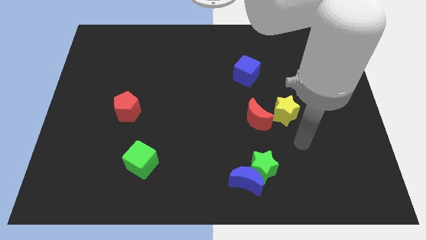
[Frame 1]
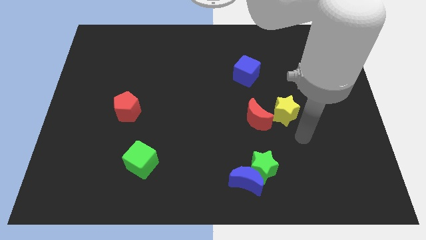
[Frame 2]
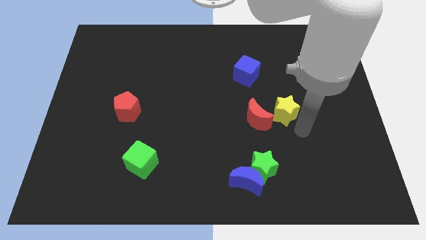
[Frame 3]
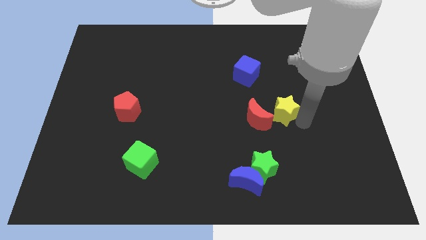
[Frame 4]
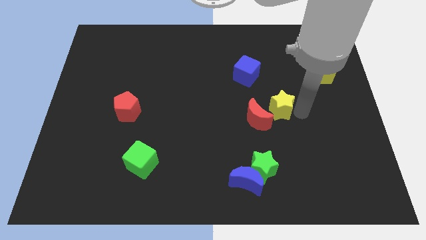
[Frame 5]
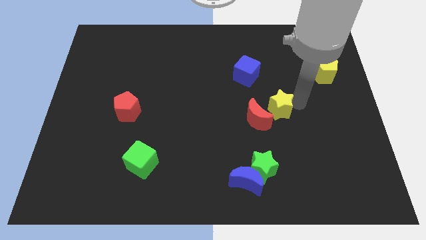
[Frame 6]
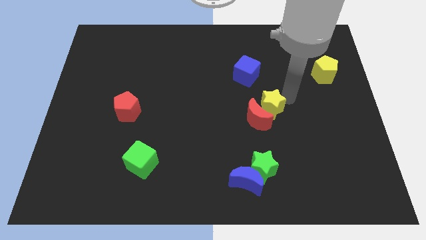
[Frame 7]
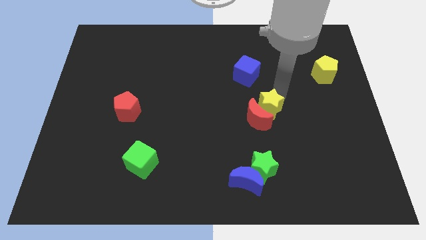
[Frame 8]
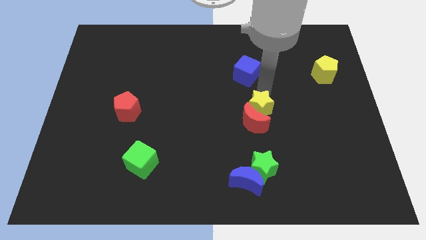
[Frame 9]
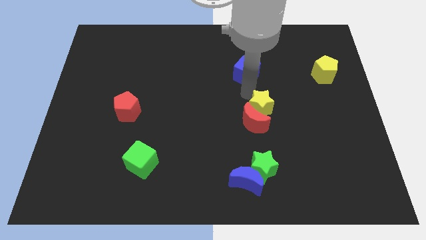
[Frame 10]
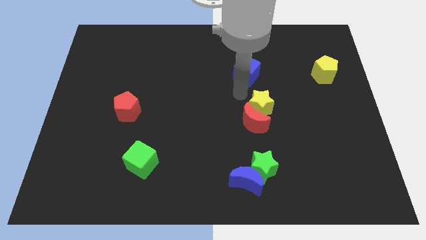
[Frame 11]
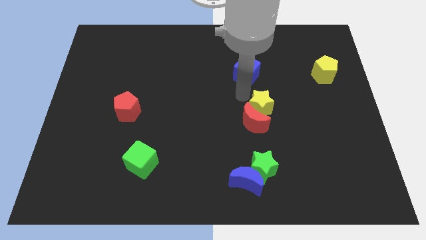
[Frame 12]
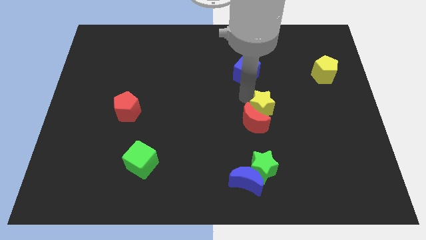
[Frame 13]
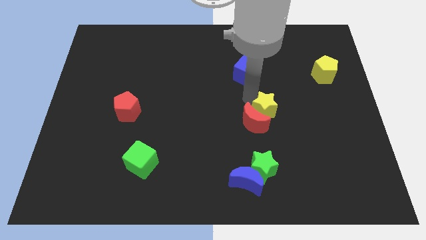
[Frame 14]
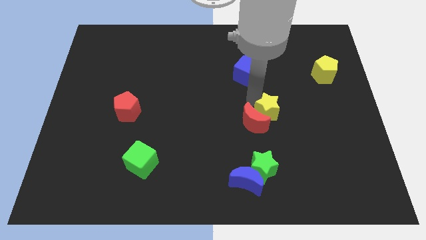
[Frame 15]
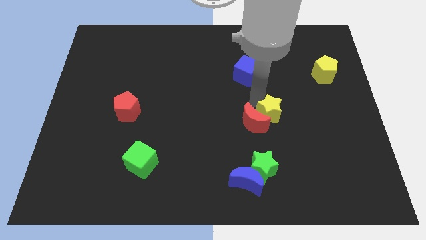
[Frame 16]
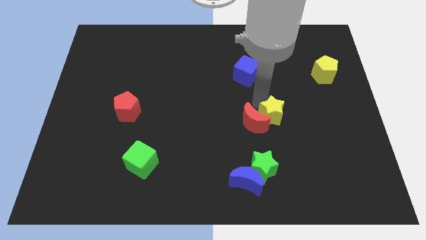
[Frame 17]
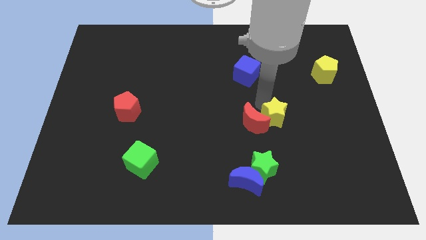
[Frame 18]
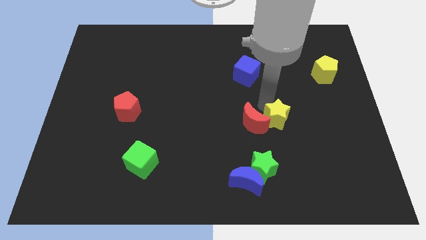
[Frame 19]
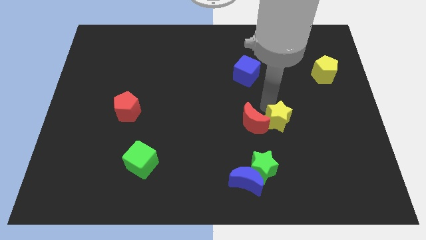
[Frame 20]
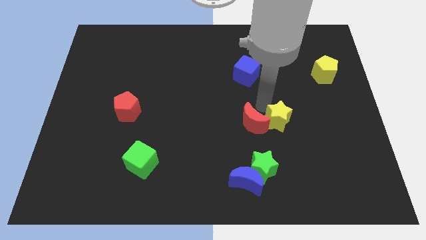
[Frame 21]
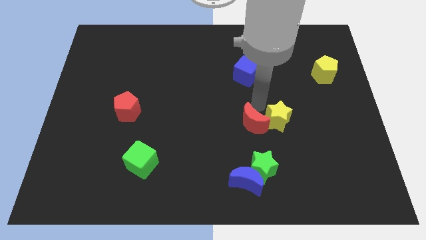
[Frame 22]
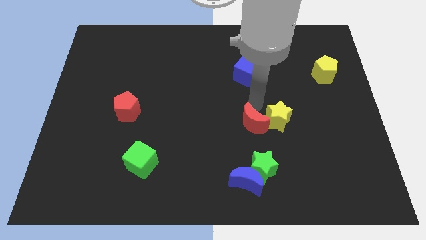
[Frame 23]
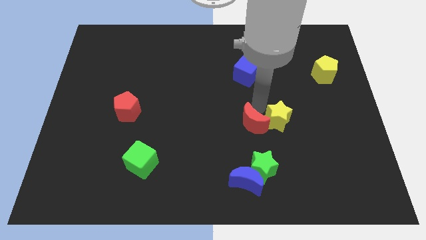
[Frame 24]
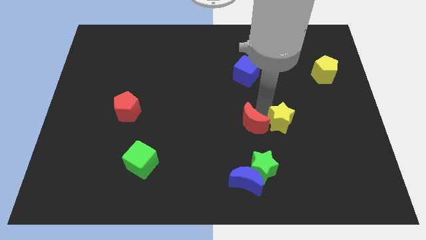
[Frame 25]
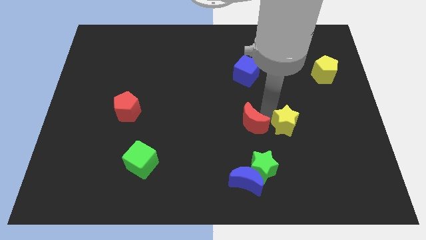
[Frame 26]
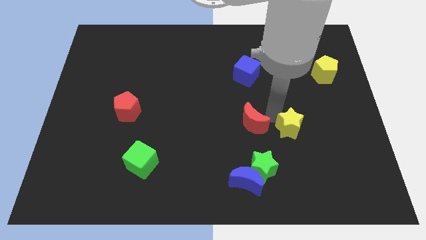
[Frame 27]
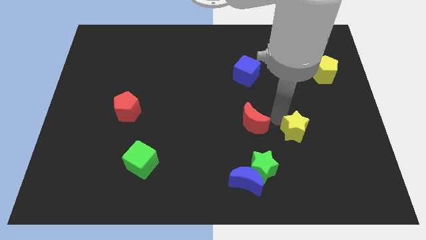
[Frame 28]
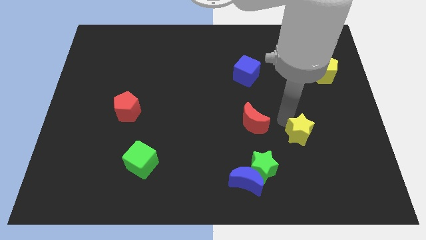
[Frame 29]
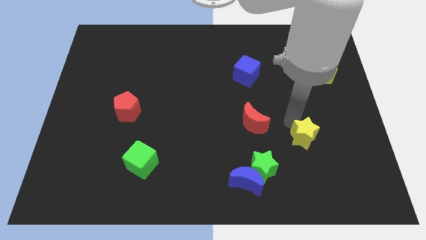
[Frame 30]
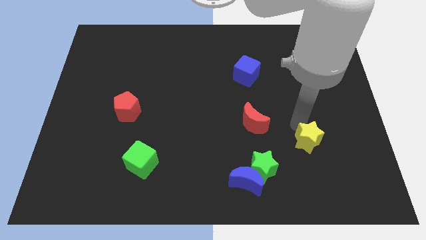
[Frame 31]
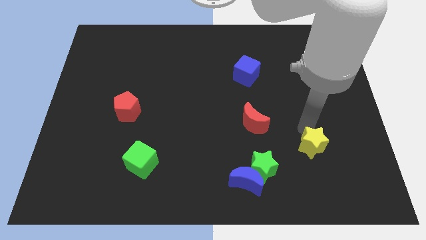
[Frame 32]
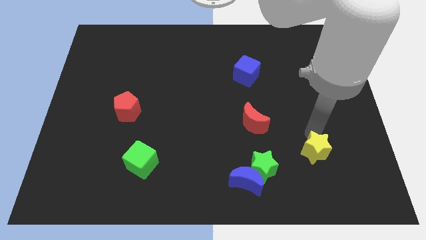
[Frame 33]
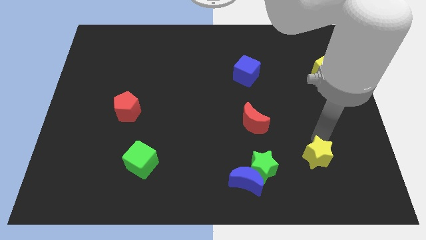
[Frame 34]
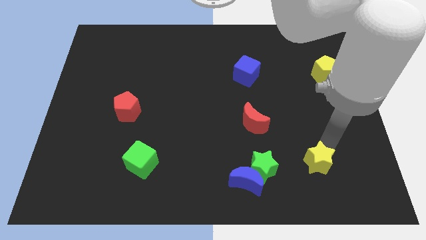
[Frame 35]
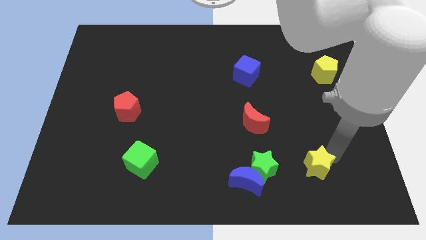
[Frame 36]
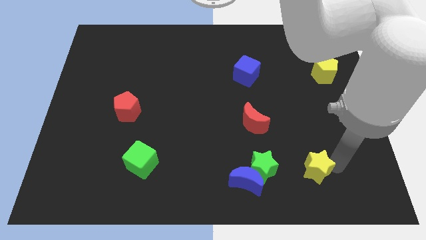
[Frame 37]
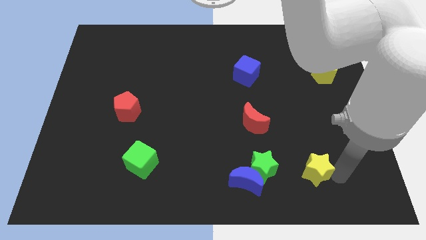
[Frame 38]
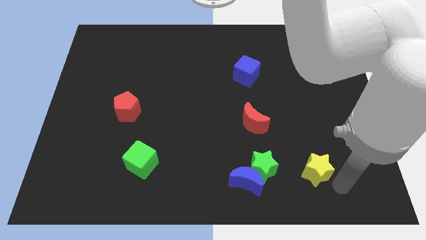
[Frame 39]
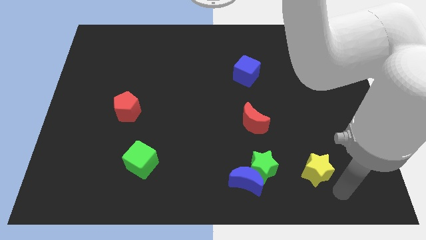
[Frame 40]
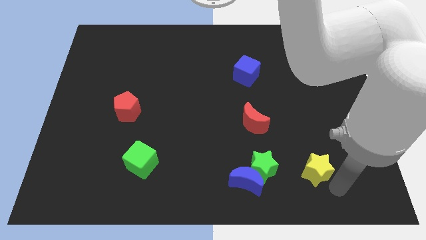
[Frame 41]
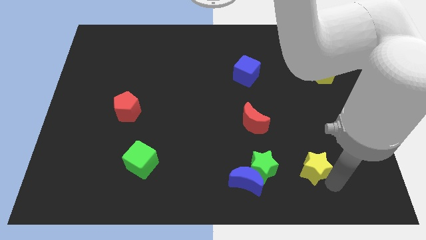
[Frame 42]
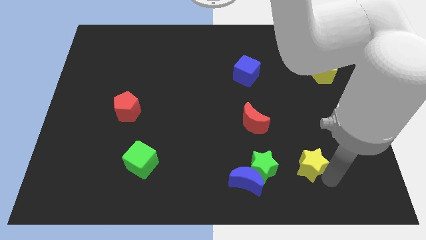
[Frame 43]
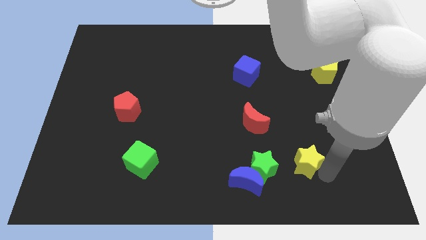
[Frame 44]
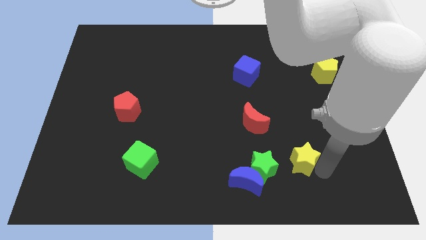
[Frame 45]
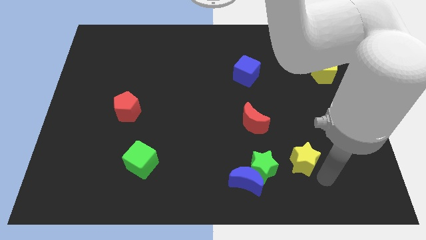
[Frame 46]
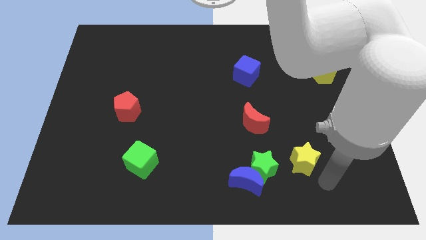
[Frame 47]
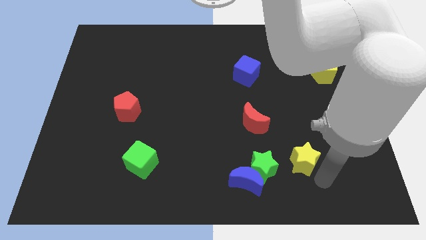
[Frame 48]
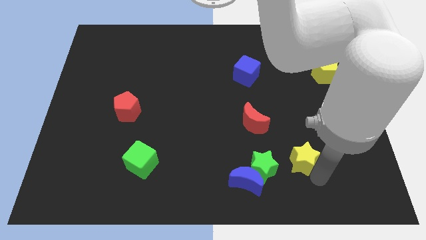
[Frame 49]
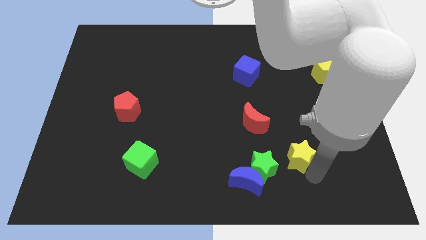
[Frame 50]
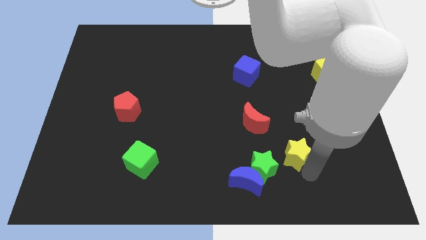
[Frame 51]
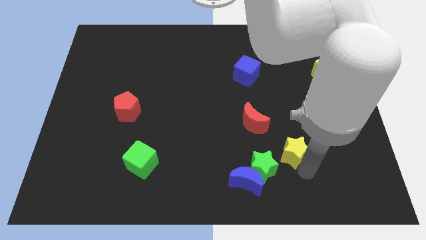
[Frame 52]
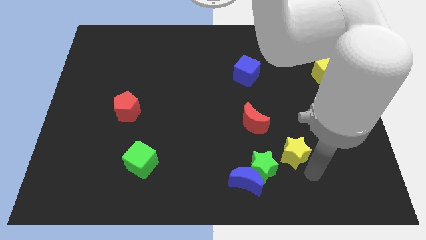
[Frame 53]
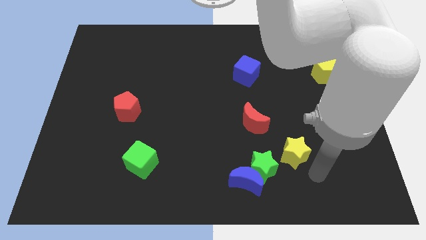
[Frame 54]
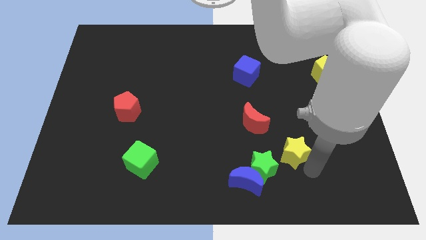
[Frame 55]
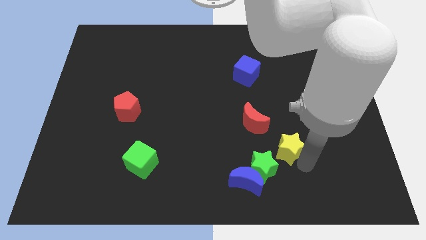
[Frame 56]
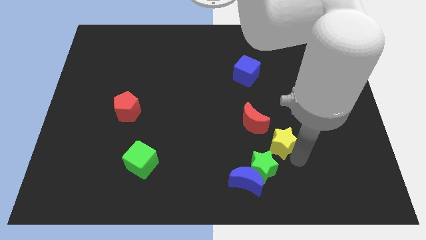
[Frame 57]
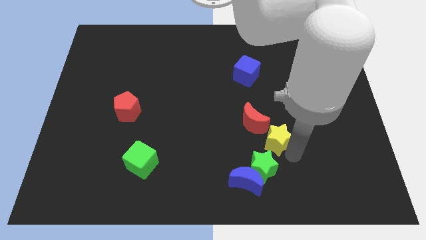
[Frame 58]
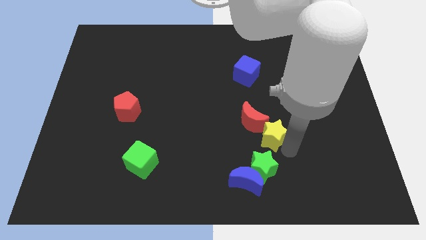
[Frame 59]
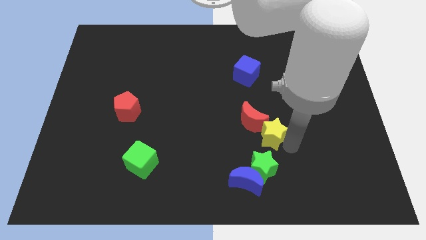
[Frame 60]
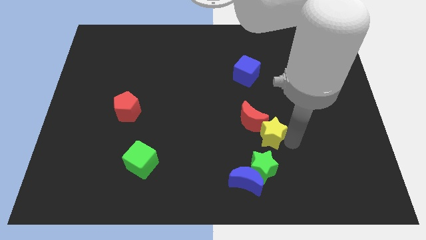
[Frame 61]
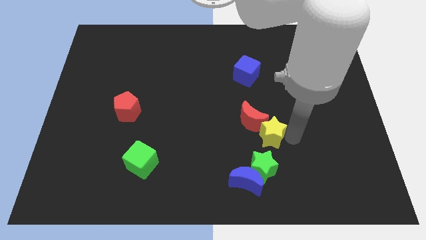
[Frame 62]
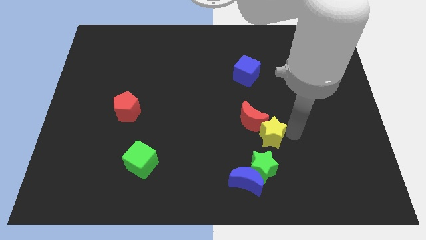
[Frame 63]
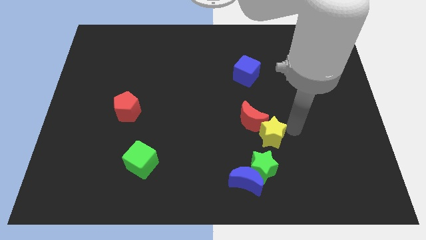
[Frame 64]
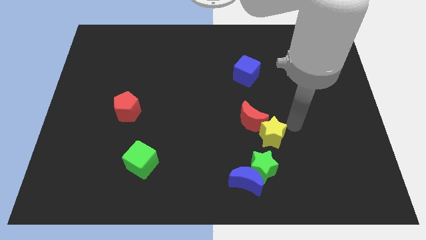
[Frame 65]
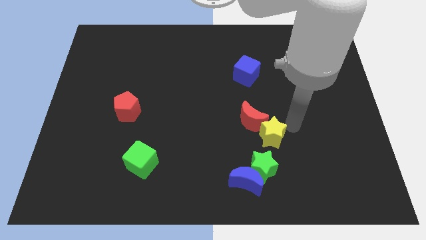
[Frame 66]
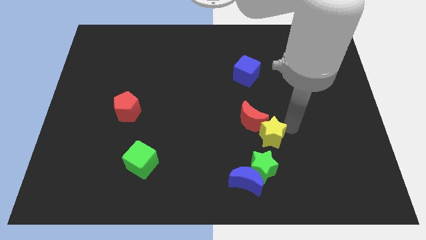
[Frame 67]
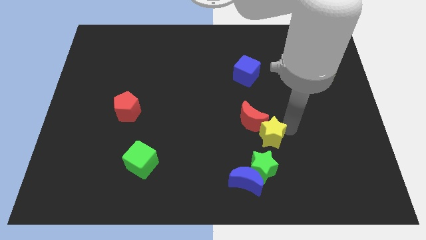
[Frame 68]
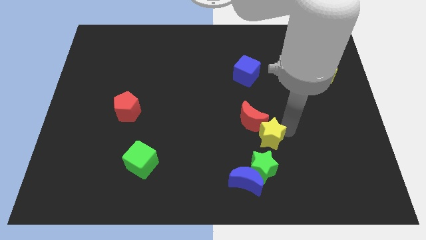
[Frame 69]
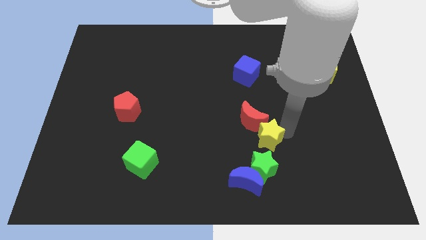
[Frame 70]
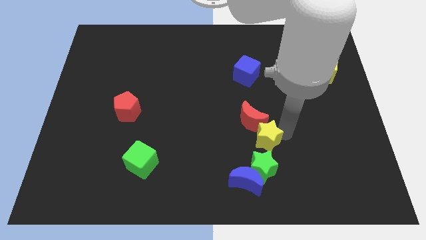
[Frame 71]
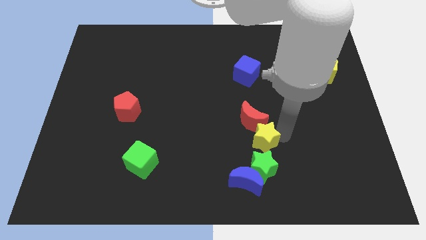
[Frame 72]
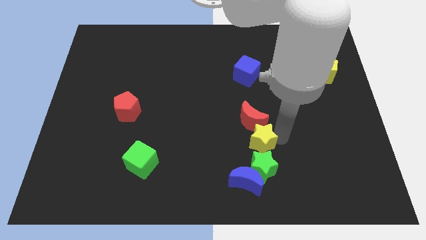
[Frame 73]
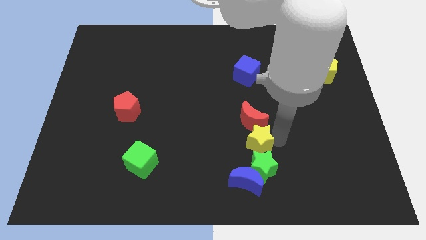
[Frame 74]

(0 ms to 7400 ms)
slide the yellow star diagonally up and to the left of the green star

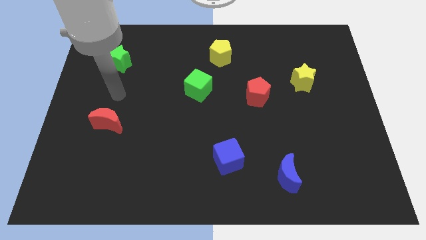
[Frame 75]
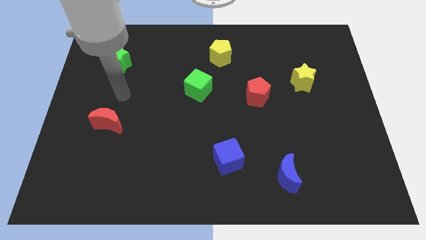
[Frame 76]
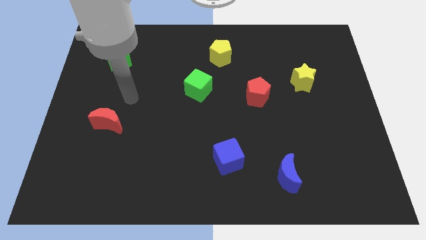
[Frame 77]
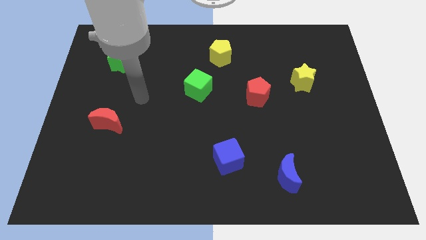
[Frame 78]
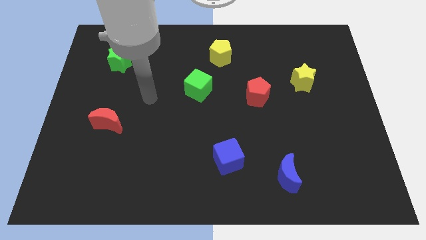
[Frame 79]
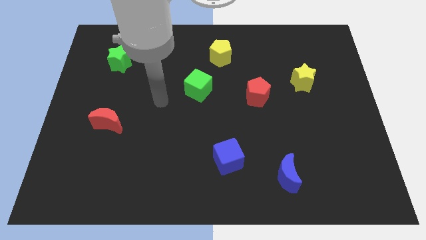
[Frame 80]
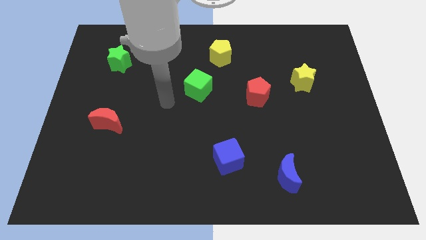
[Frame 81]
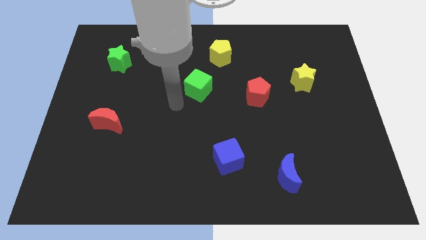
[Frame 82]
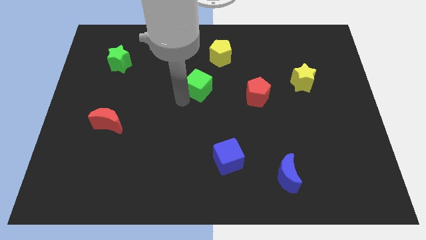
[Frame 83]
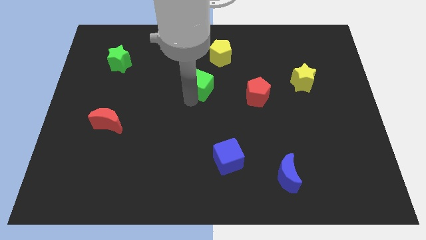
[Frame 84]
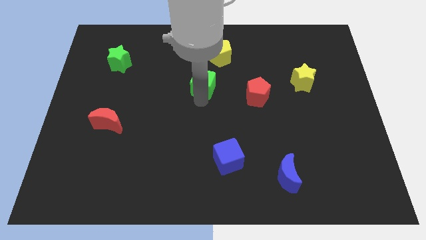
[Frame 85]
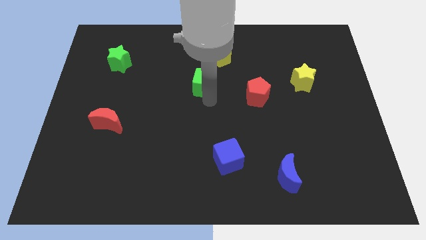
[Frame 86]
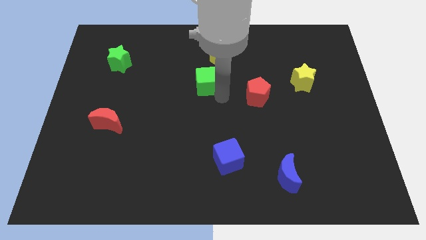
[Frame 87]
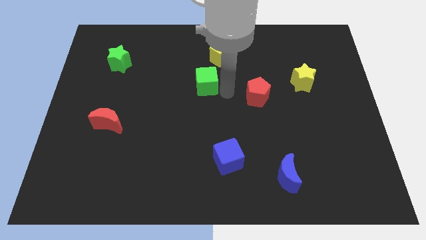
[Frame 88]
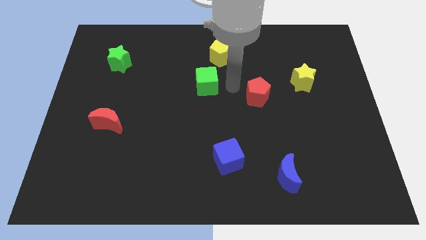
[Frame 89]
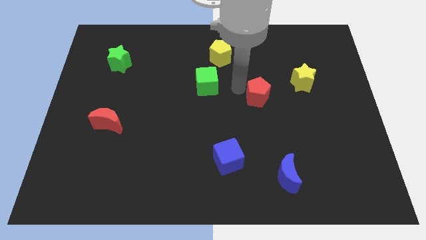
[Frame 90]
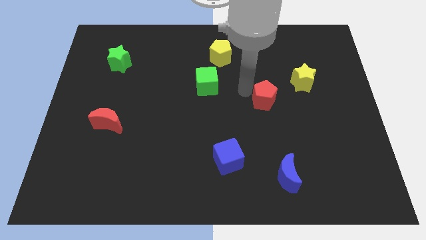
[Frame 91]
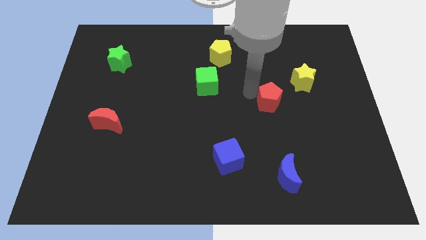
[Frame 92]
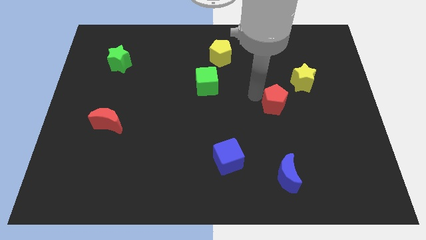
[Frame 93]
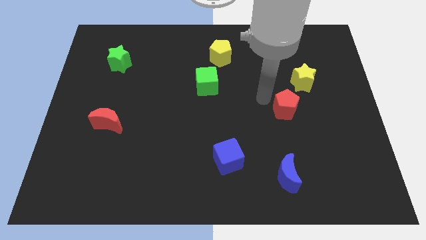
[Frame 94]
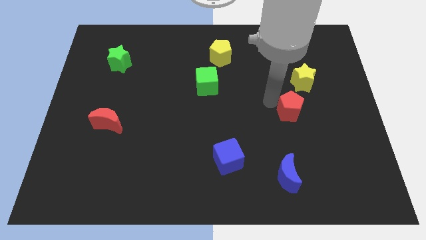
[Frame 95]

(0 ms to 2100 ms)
slide the red pentagon to the bottom side of the yellow star
